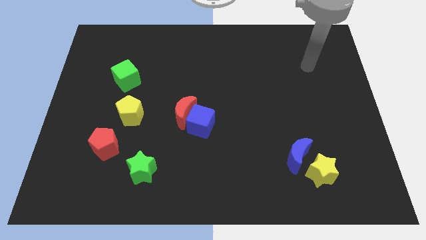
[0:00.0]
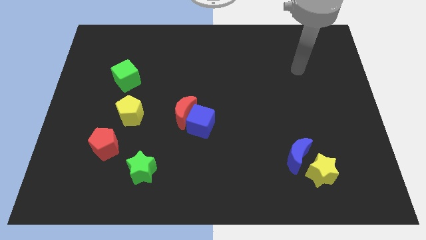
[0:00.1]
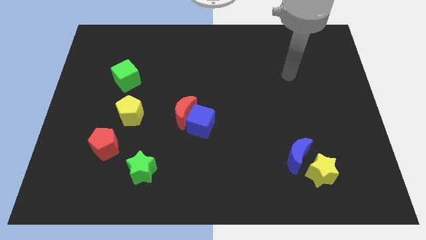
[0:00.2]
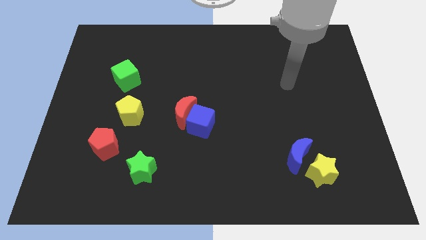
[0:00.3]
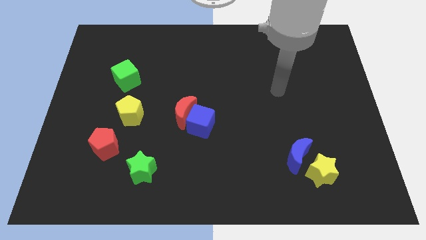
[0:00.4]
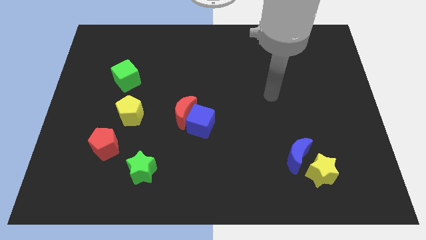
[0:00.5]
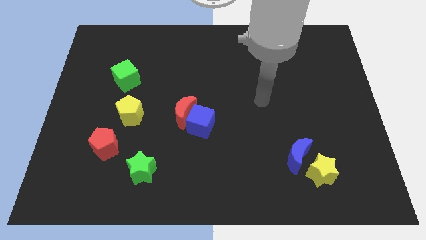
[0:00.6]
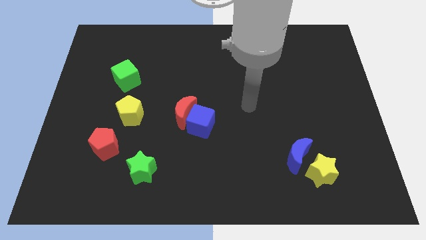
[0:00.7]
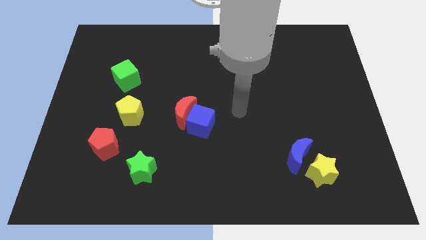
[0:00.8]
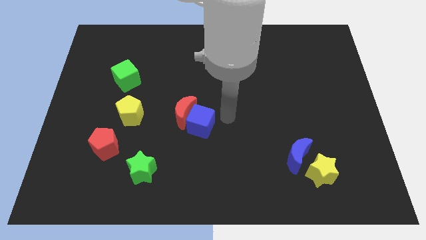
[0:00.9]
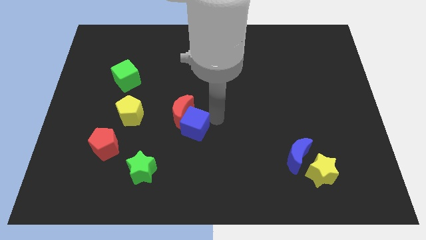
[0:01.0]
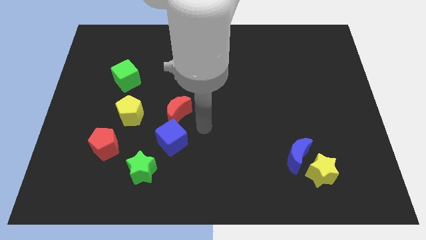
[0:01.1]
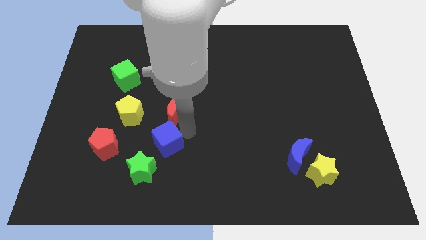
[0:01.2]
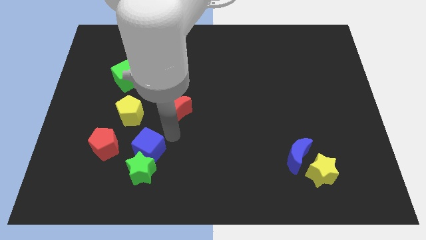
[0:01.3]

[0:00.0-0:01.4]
separate the red moon from the blue cube

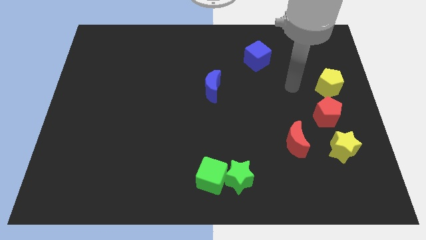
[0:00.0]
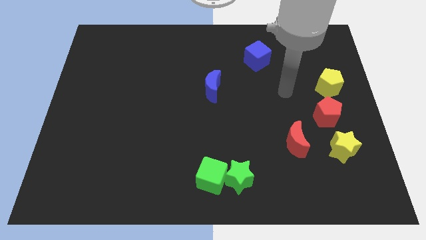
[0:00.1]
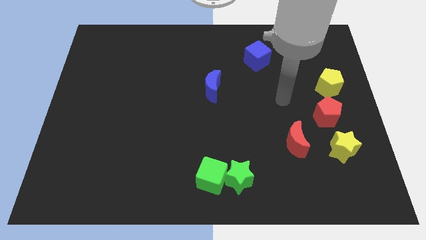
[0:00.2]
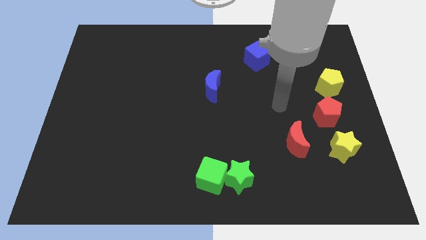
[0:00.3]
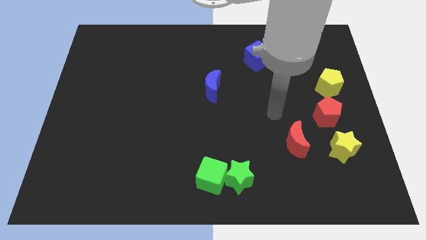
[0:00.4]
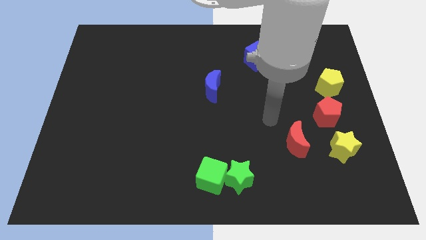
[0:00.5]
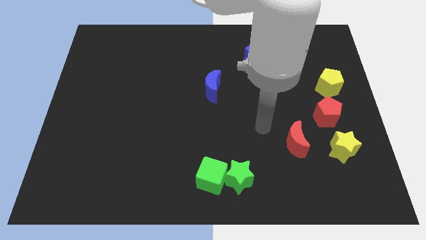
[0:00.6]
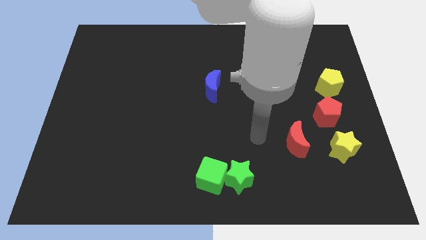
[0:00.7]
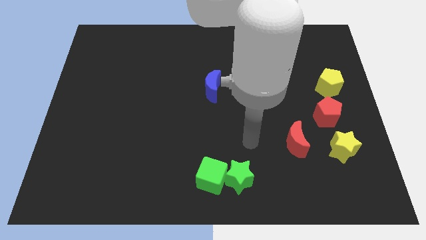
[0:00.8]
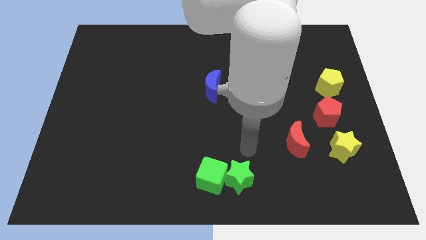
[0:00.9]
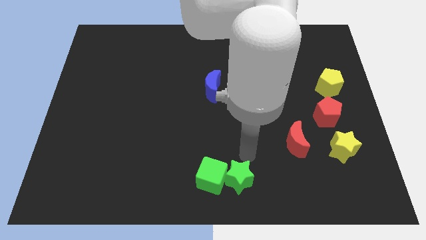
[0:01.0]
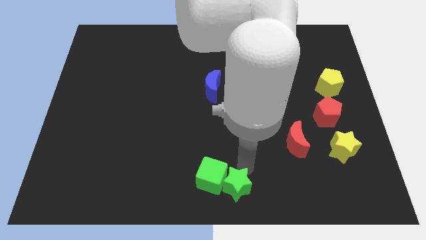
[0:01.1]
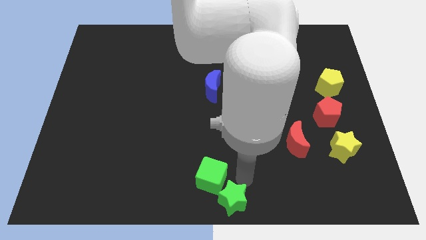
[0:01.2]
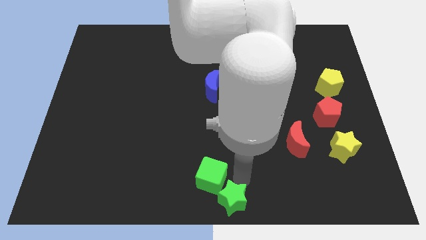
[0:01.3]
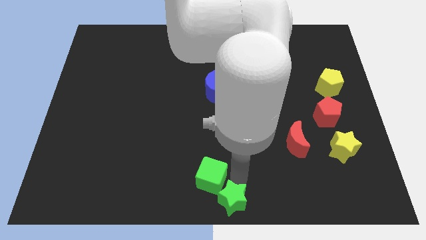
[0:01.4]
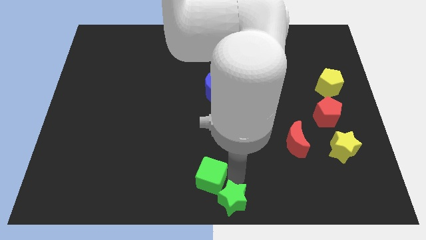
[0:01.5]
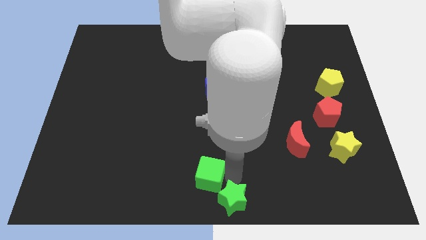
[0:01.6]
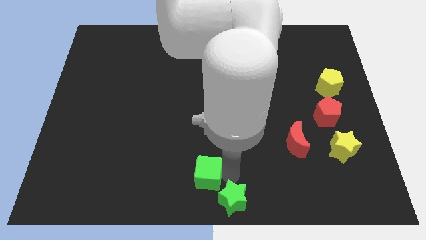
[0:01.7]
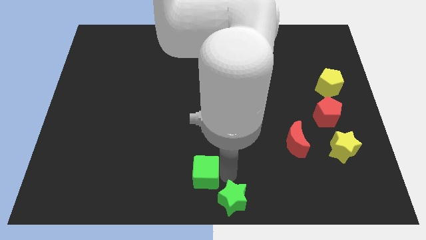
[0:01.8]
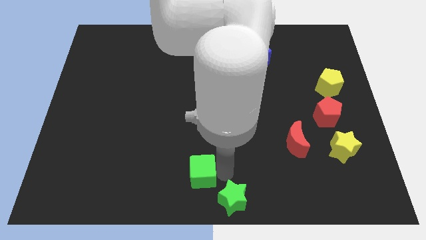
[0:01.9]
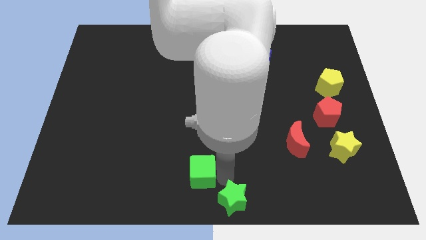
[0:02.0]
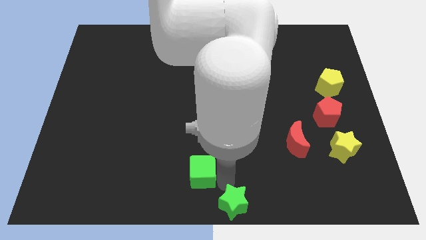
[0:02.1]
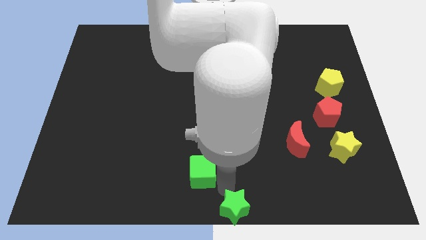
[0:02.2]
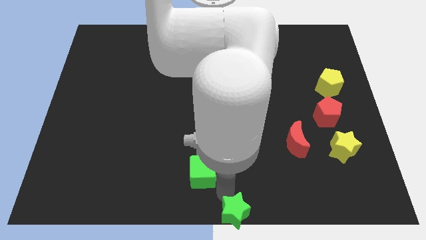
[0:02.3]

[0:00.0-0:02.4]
separate the green cube from the green star

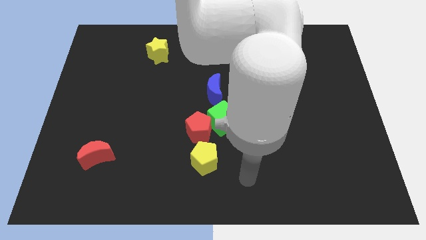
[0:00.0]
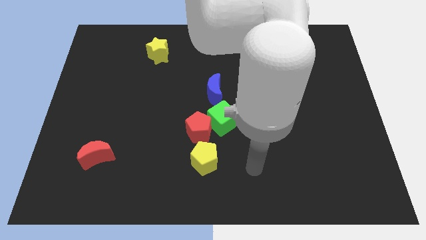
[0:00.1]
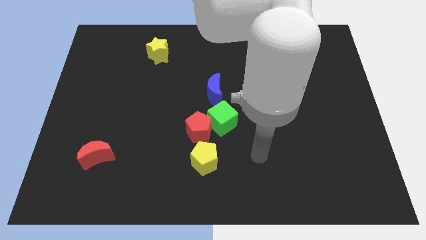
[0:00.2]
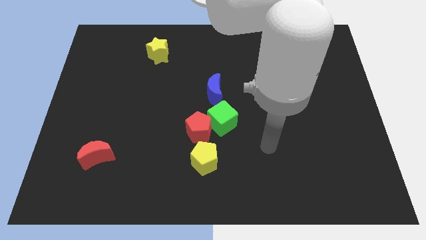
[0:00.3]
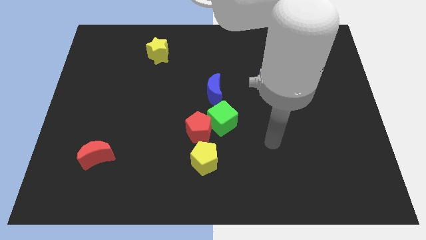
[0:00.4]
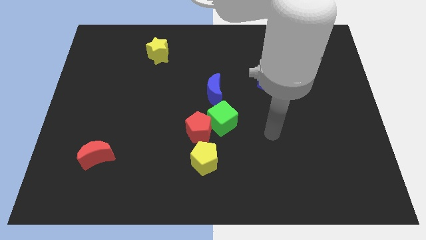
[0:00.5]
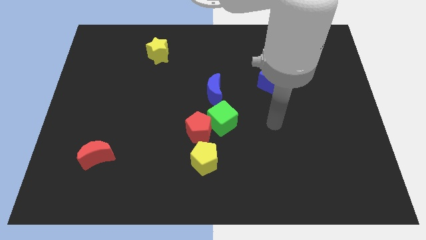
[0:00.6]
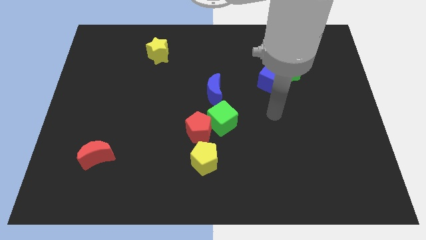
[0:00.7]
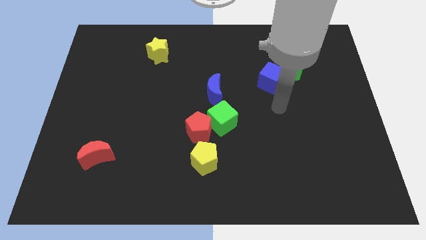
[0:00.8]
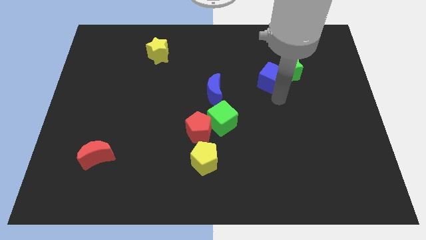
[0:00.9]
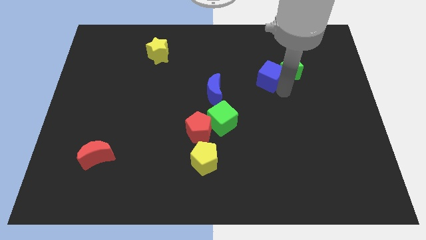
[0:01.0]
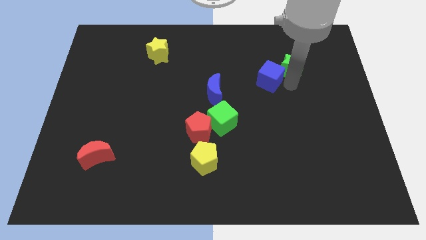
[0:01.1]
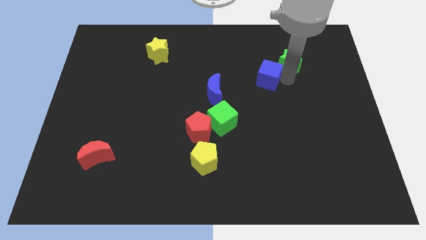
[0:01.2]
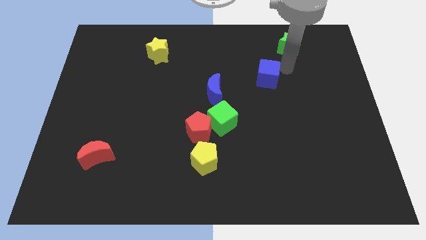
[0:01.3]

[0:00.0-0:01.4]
separate the blue cube from the green star

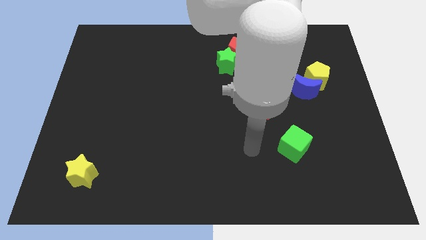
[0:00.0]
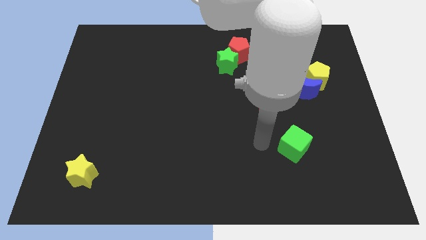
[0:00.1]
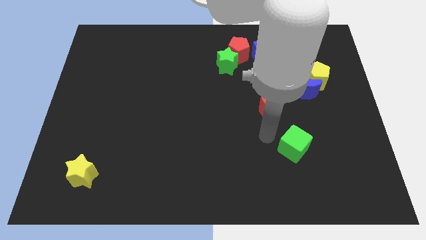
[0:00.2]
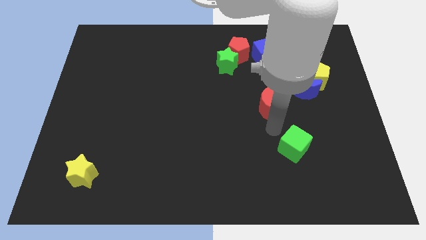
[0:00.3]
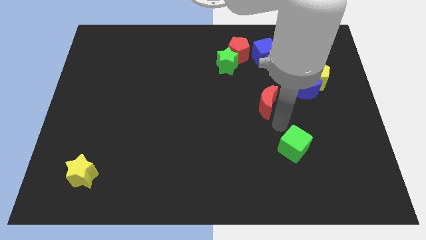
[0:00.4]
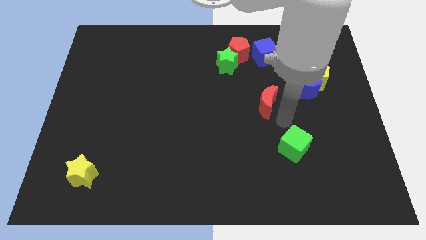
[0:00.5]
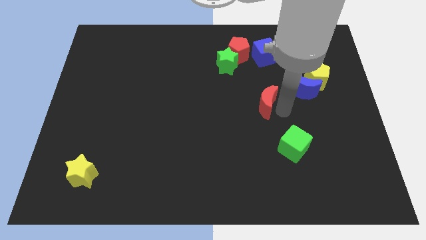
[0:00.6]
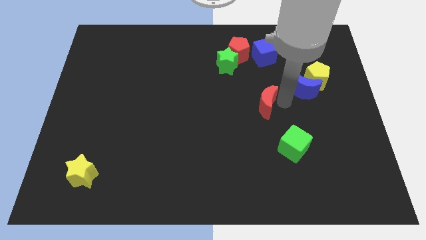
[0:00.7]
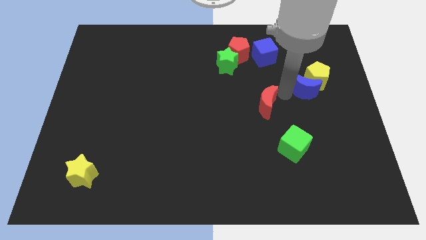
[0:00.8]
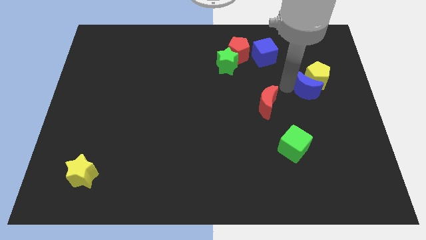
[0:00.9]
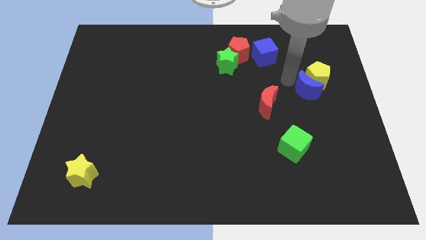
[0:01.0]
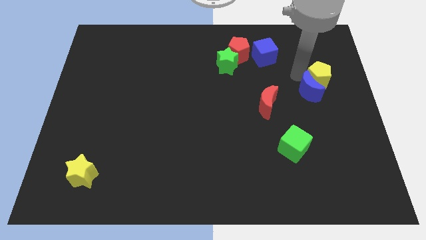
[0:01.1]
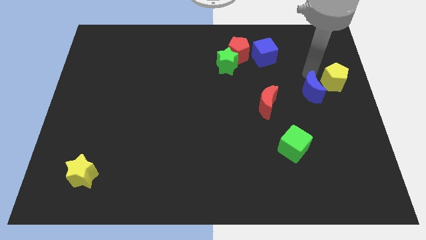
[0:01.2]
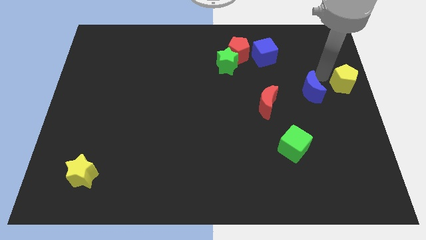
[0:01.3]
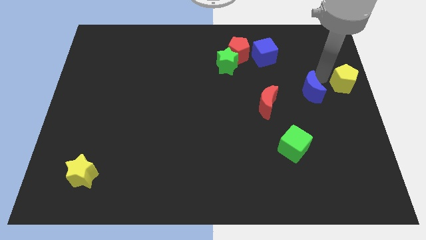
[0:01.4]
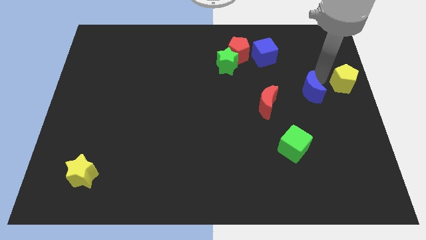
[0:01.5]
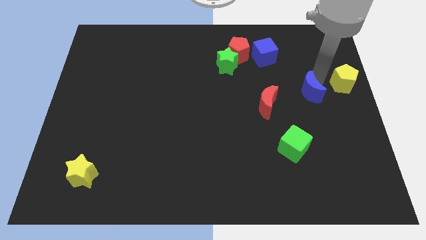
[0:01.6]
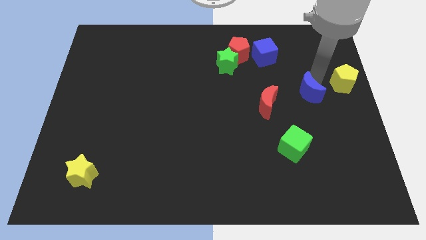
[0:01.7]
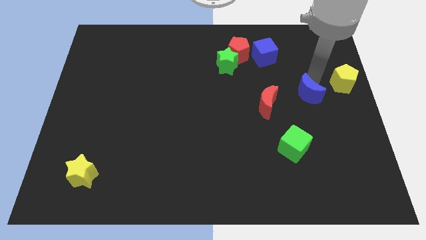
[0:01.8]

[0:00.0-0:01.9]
move the blue moon away from the yellow pentagon

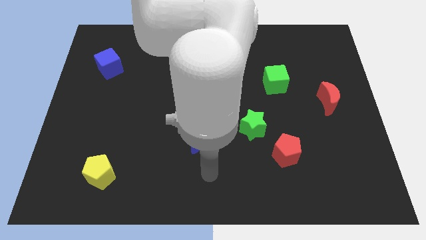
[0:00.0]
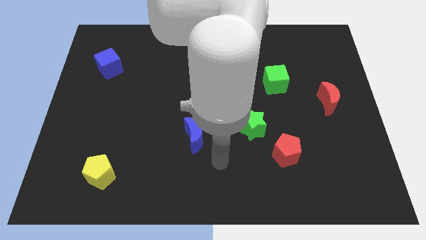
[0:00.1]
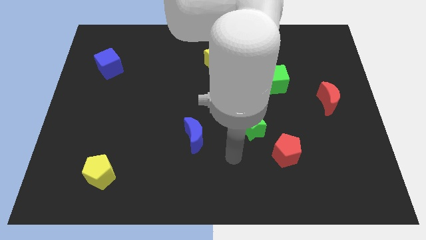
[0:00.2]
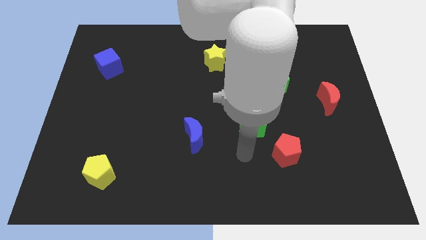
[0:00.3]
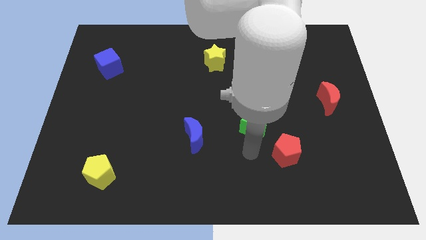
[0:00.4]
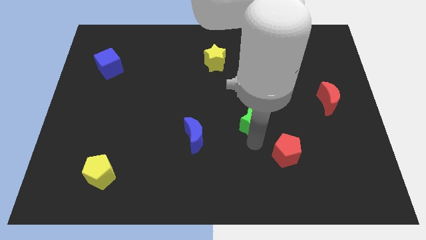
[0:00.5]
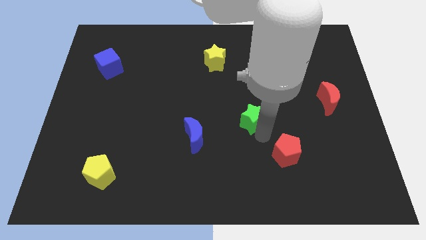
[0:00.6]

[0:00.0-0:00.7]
separate the red pentagon from the green star

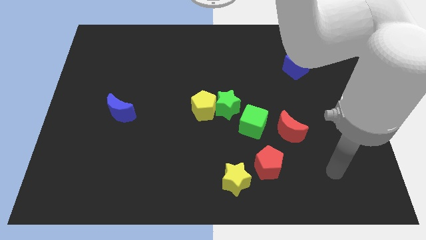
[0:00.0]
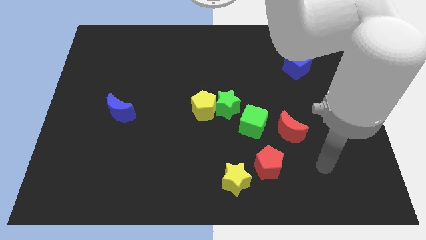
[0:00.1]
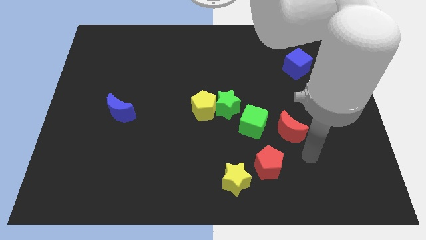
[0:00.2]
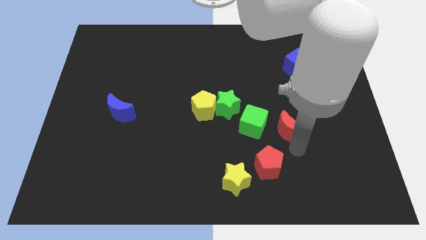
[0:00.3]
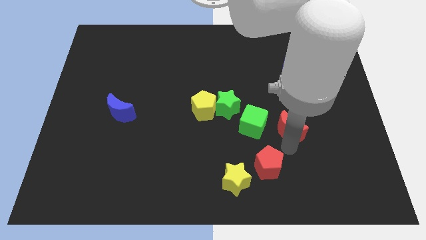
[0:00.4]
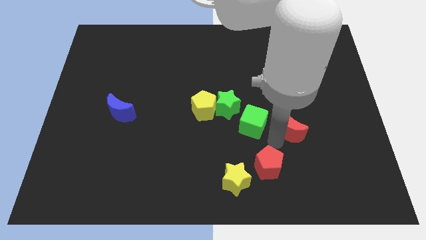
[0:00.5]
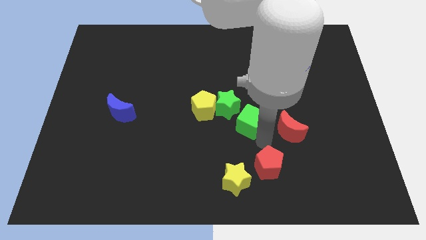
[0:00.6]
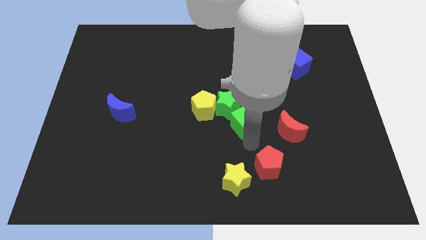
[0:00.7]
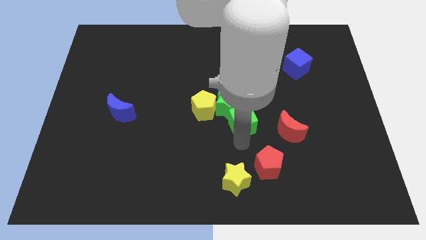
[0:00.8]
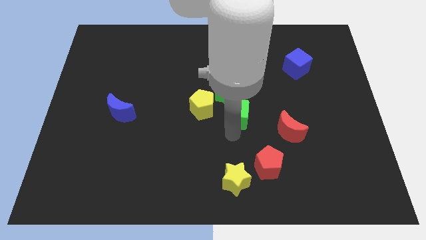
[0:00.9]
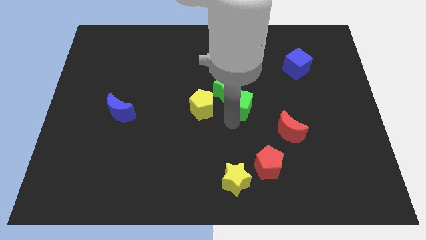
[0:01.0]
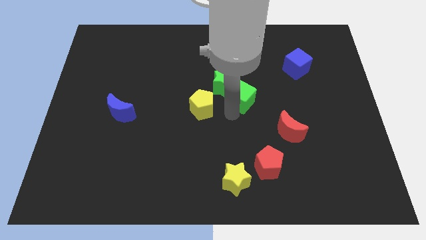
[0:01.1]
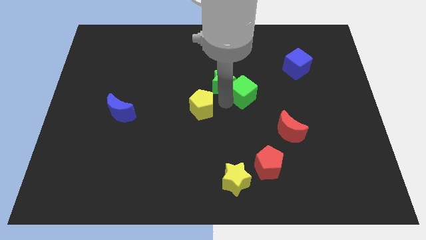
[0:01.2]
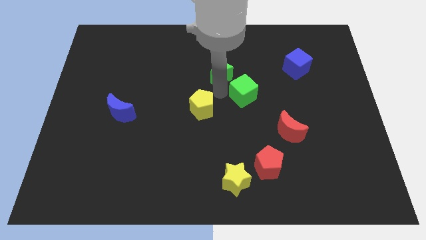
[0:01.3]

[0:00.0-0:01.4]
separate the yellow pentagon from the green star

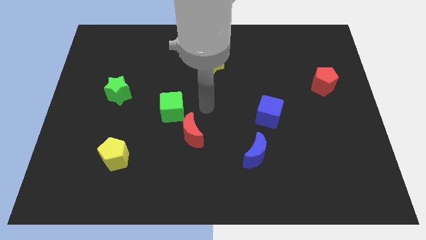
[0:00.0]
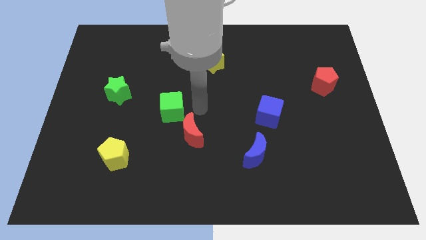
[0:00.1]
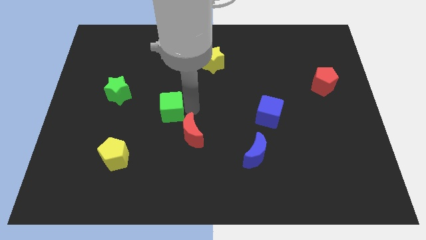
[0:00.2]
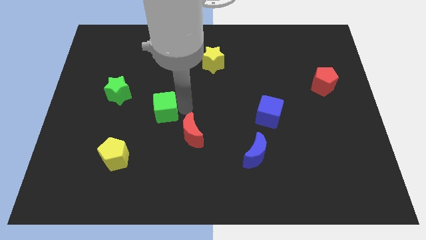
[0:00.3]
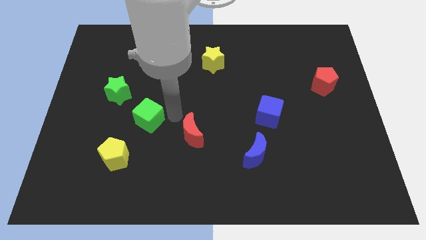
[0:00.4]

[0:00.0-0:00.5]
move the red moon away from the green cube
